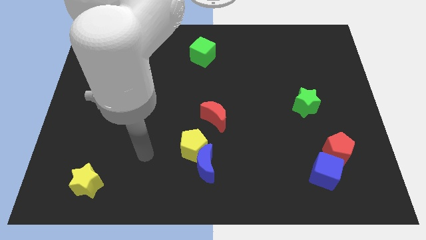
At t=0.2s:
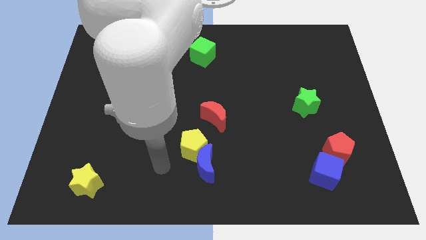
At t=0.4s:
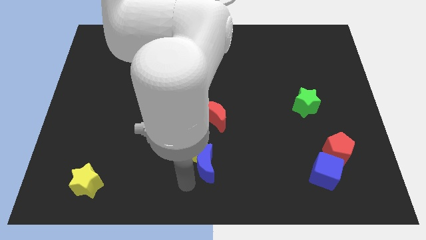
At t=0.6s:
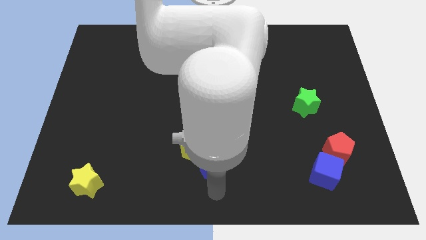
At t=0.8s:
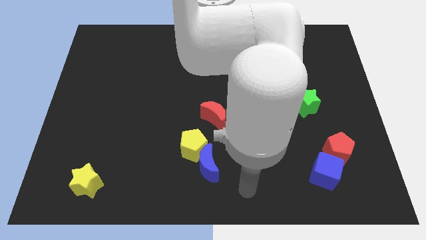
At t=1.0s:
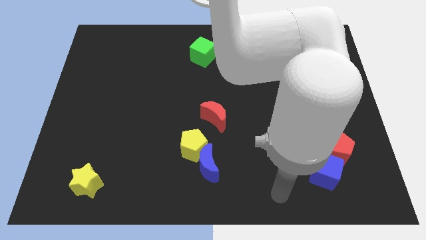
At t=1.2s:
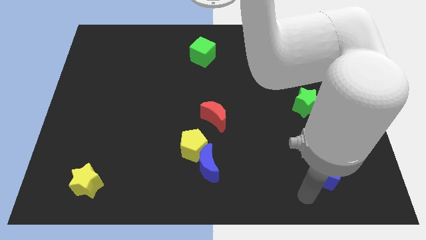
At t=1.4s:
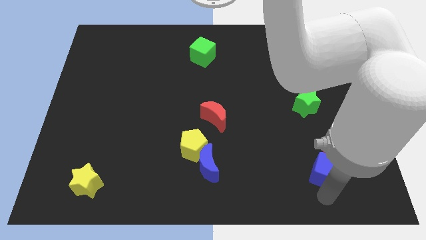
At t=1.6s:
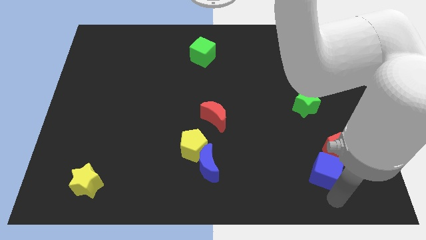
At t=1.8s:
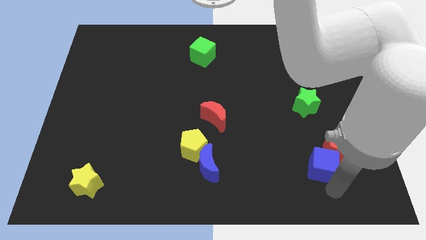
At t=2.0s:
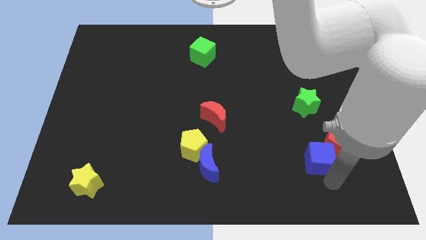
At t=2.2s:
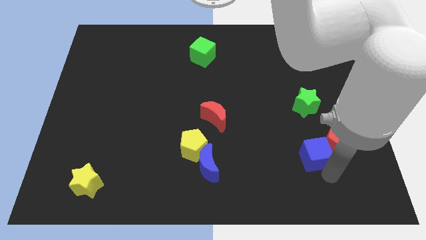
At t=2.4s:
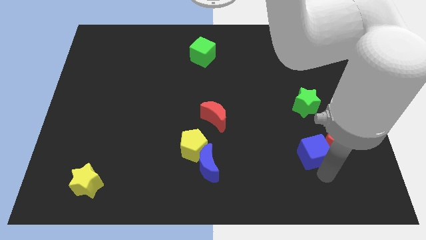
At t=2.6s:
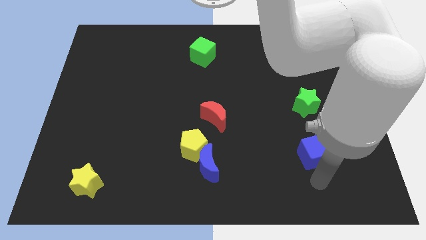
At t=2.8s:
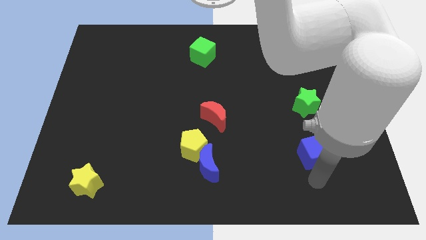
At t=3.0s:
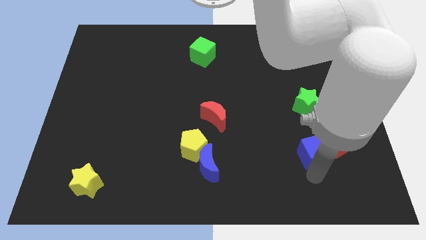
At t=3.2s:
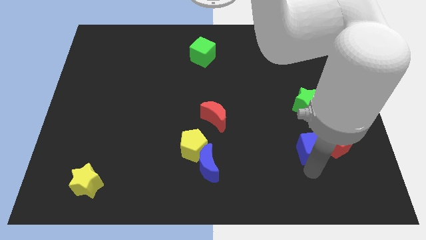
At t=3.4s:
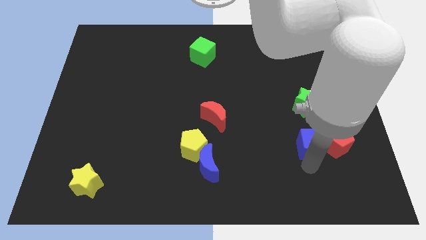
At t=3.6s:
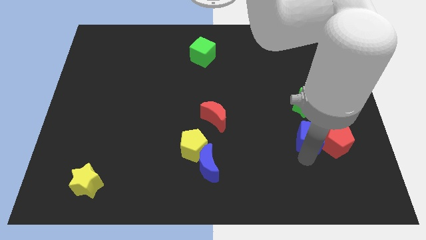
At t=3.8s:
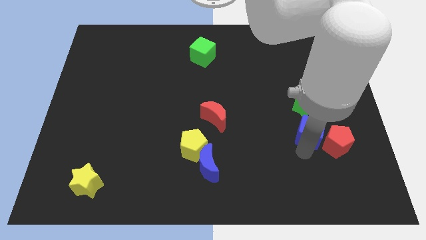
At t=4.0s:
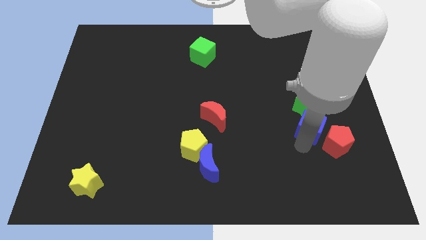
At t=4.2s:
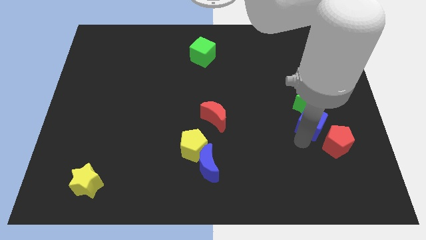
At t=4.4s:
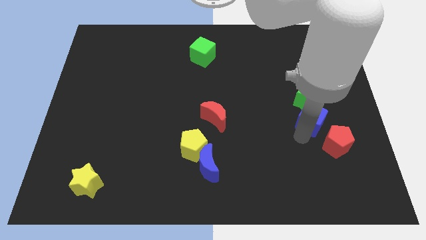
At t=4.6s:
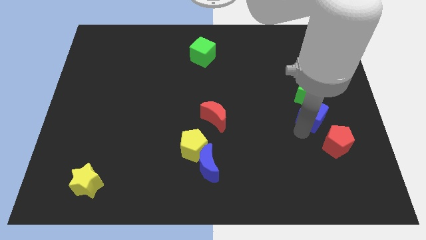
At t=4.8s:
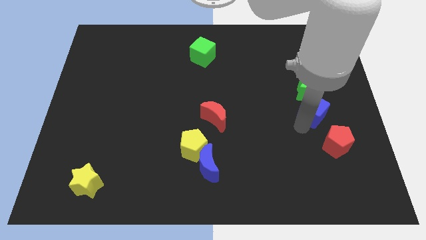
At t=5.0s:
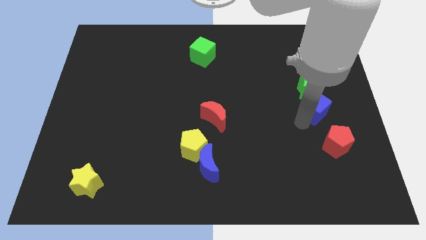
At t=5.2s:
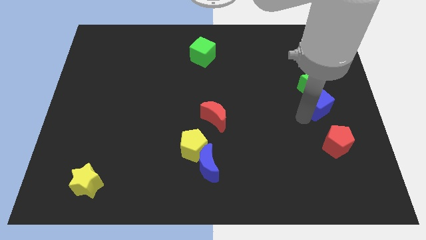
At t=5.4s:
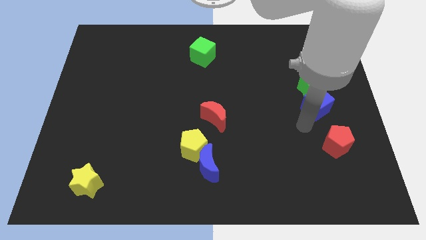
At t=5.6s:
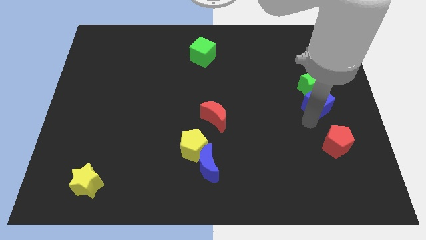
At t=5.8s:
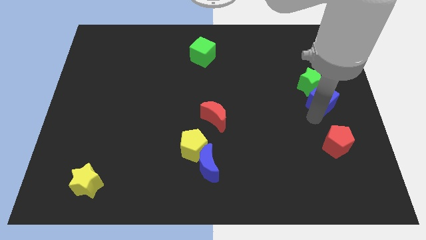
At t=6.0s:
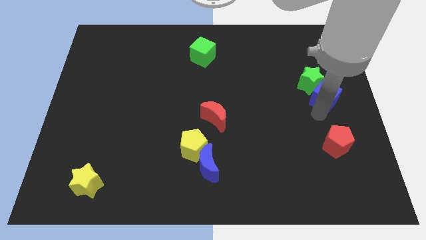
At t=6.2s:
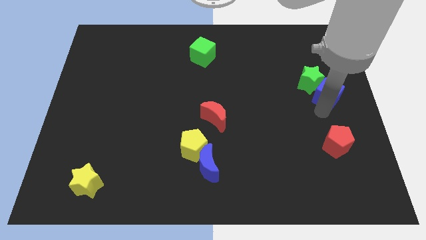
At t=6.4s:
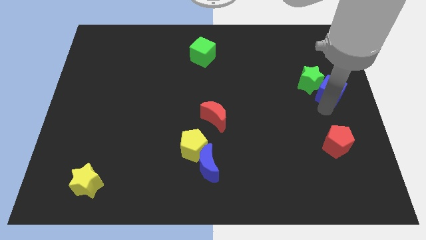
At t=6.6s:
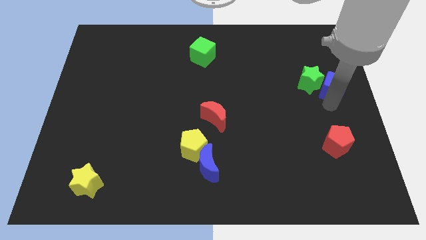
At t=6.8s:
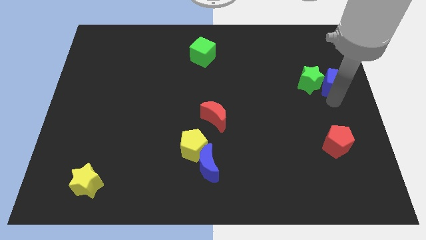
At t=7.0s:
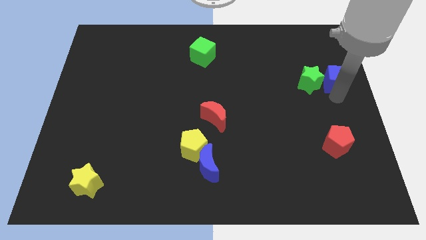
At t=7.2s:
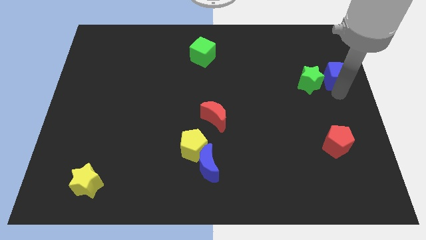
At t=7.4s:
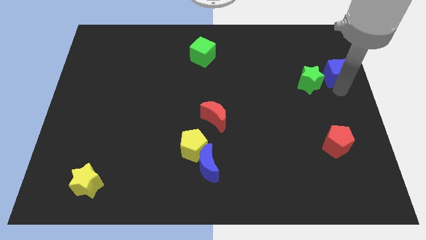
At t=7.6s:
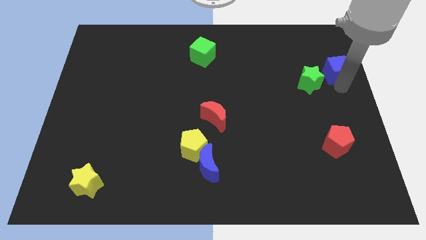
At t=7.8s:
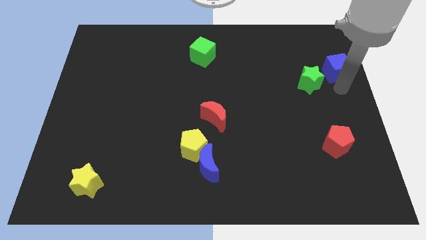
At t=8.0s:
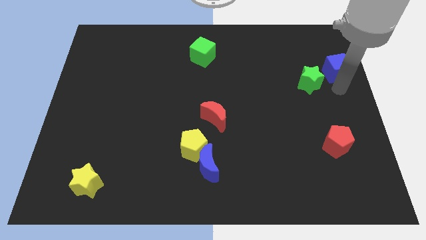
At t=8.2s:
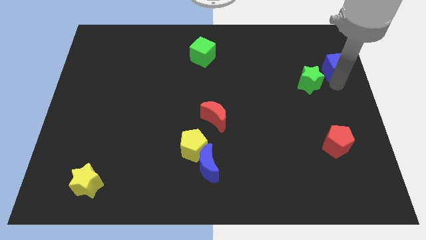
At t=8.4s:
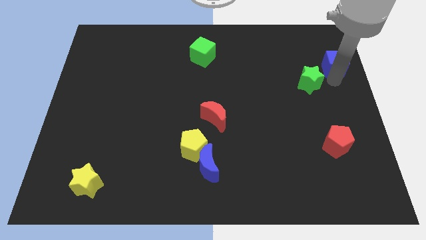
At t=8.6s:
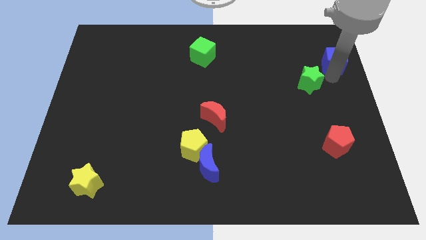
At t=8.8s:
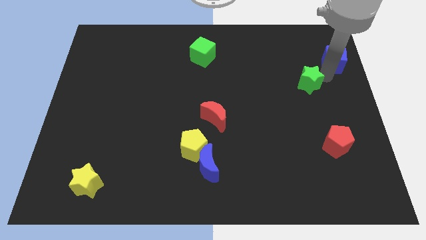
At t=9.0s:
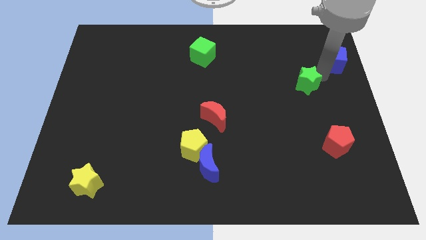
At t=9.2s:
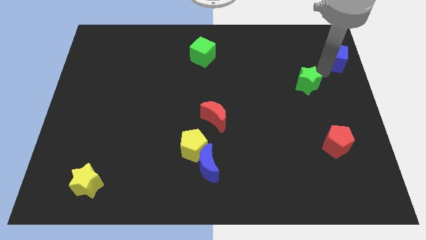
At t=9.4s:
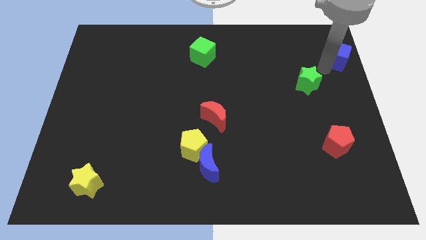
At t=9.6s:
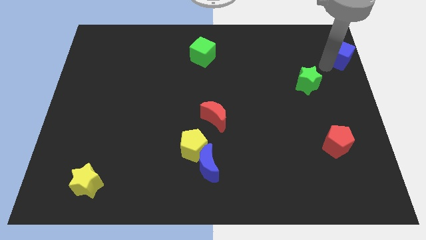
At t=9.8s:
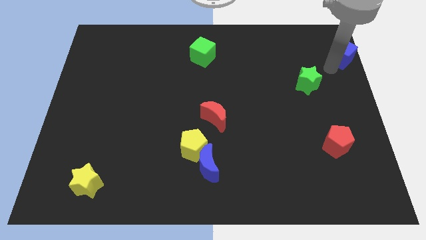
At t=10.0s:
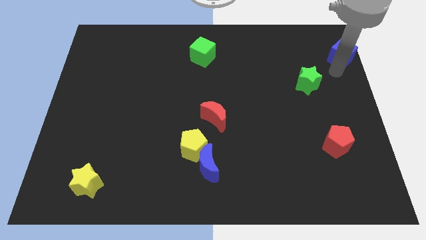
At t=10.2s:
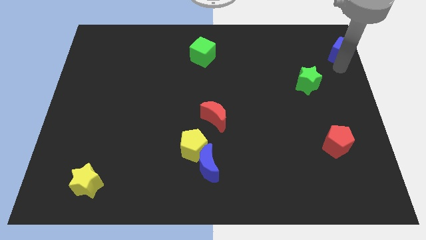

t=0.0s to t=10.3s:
move the blue cube to the top right corner
